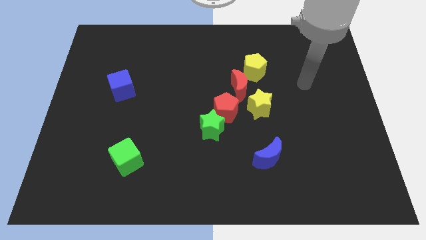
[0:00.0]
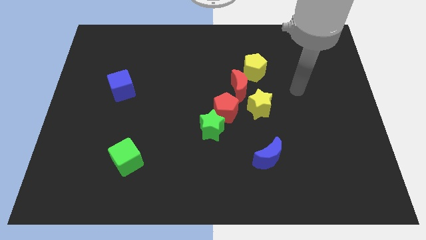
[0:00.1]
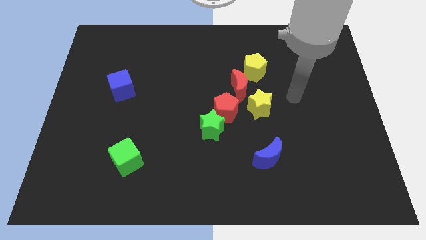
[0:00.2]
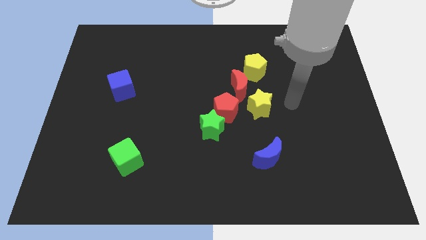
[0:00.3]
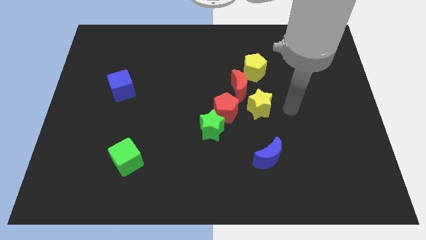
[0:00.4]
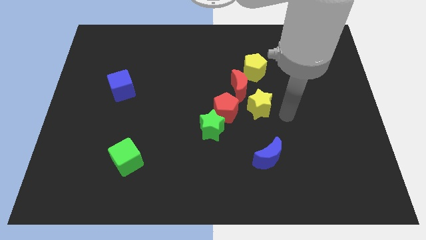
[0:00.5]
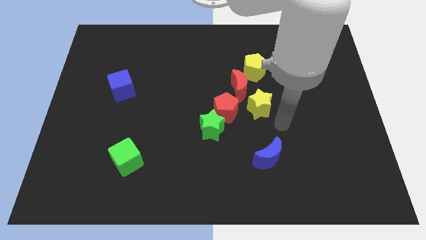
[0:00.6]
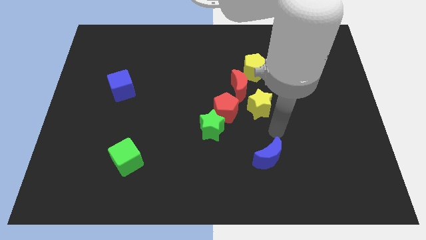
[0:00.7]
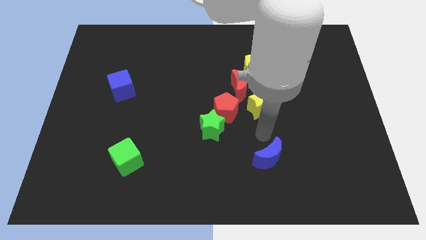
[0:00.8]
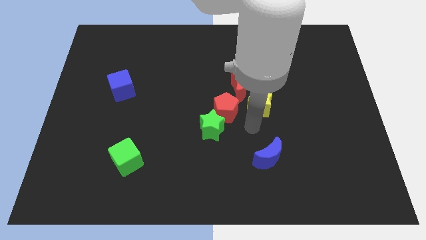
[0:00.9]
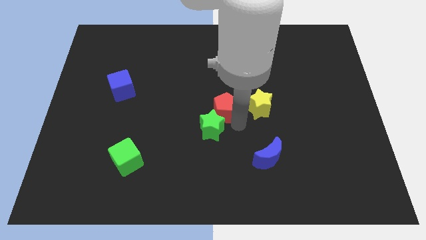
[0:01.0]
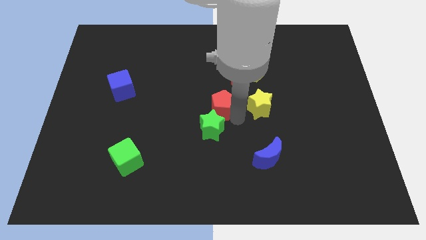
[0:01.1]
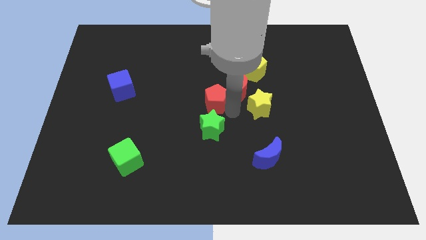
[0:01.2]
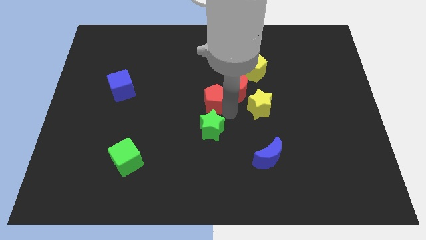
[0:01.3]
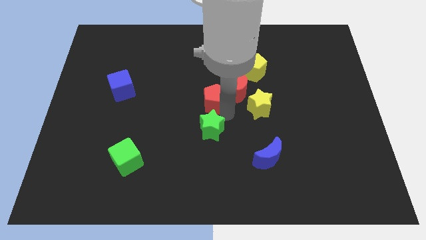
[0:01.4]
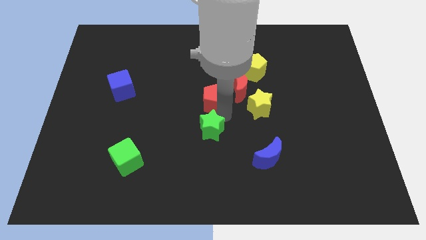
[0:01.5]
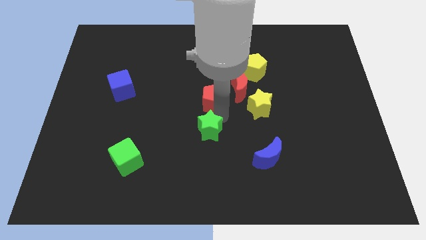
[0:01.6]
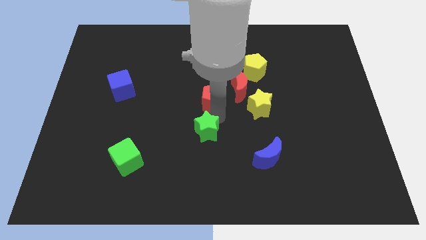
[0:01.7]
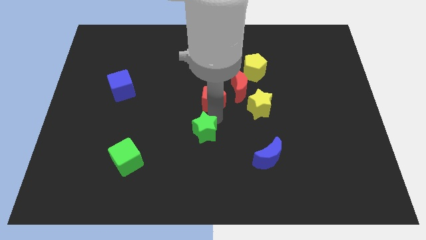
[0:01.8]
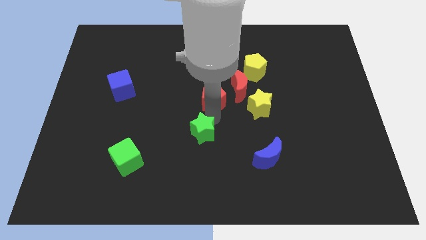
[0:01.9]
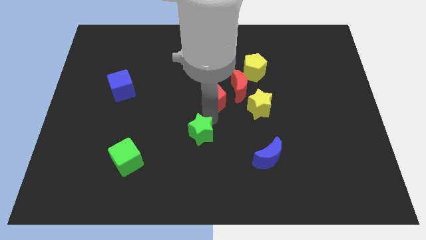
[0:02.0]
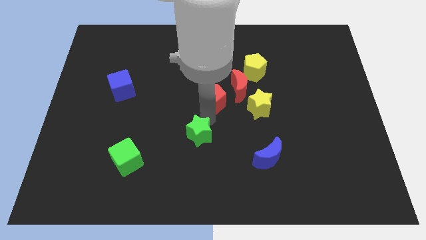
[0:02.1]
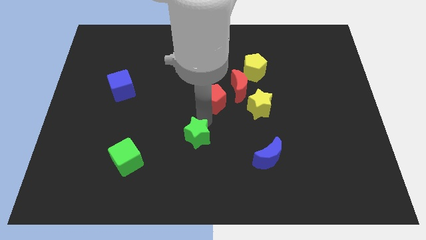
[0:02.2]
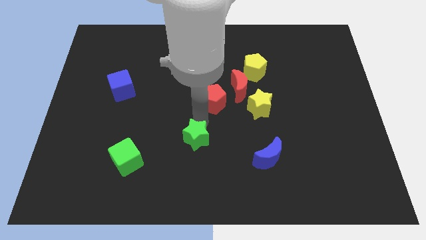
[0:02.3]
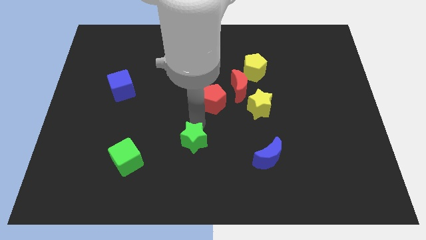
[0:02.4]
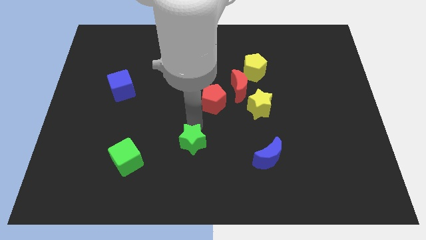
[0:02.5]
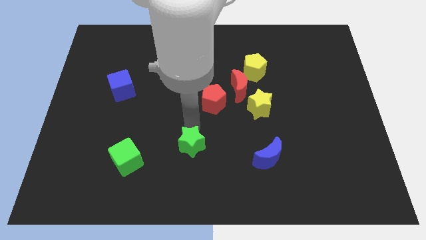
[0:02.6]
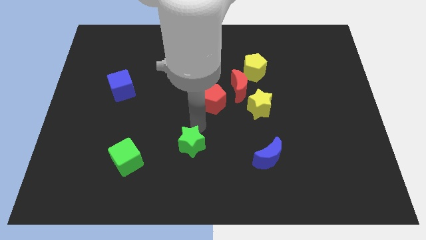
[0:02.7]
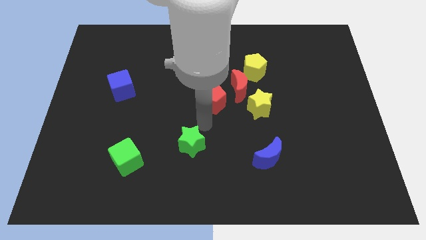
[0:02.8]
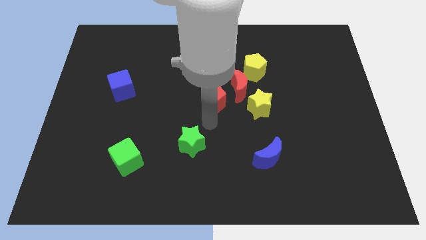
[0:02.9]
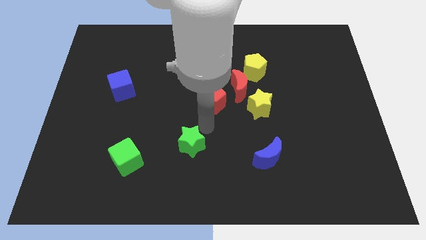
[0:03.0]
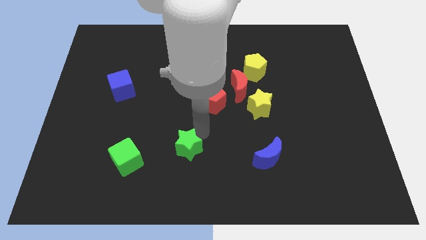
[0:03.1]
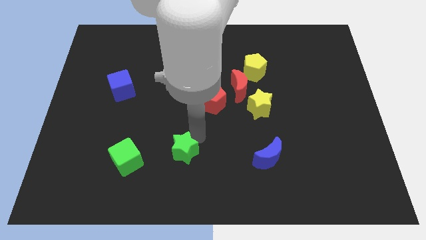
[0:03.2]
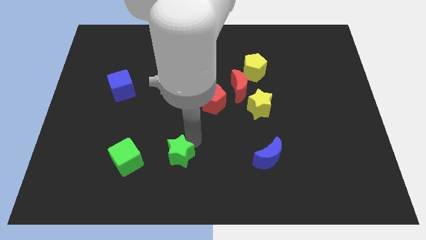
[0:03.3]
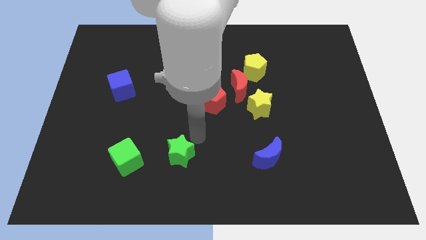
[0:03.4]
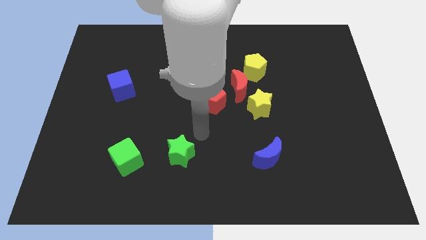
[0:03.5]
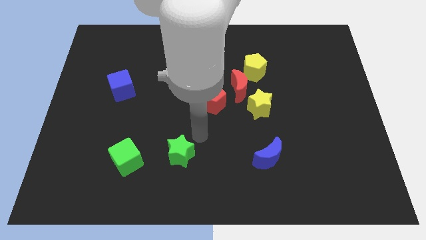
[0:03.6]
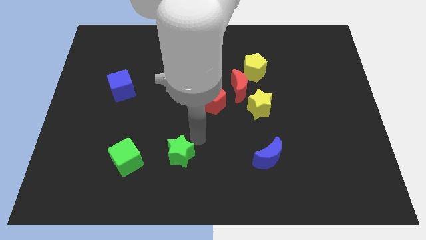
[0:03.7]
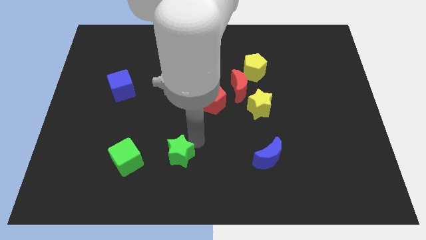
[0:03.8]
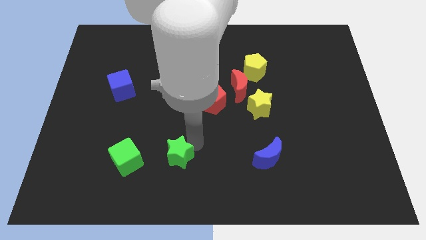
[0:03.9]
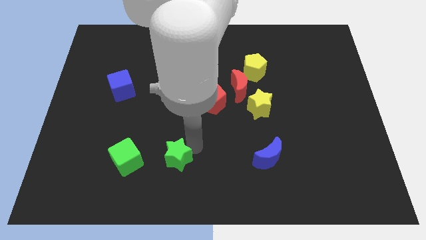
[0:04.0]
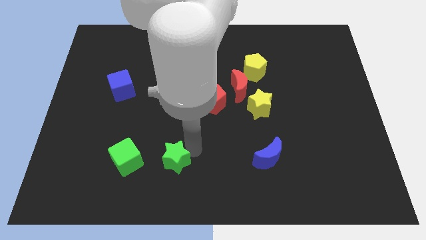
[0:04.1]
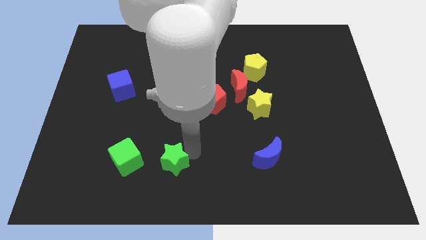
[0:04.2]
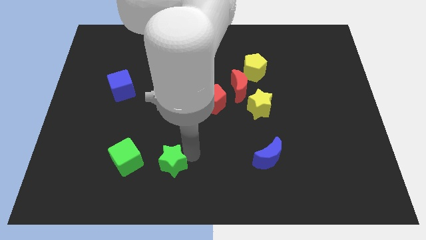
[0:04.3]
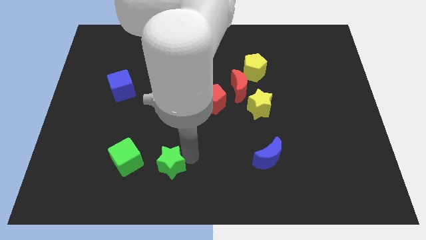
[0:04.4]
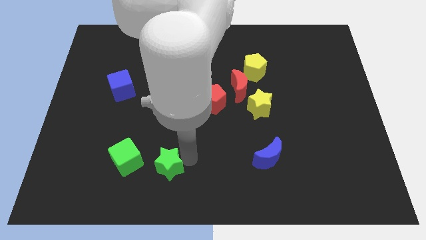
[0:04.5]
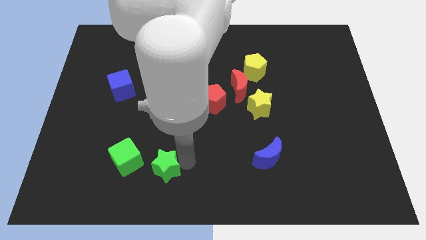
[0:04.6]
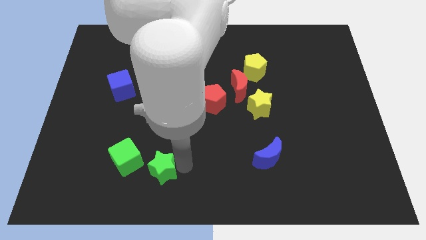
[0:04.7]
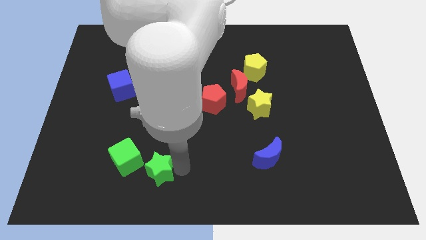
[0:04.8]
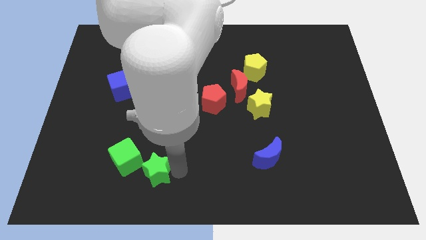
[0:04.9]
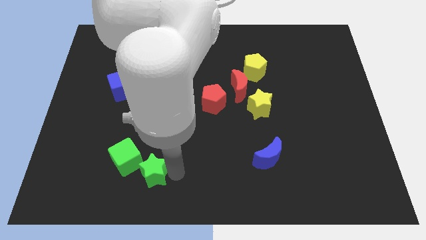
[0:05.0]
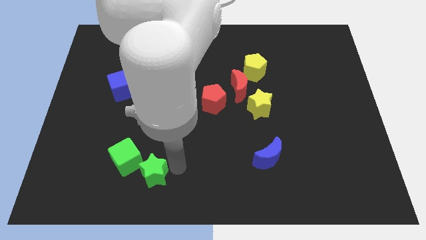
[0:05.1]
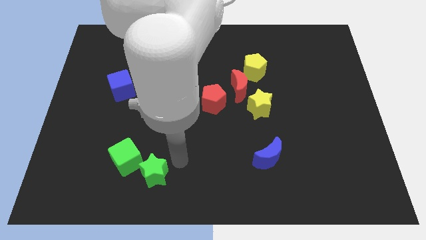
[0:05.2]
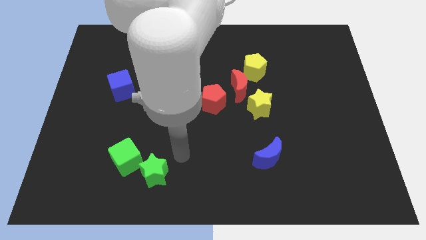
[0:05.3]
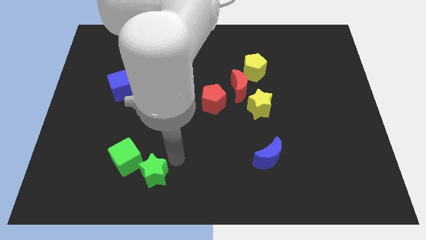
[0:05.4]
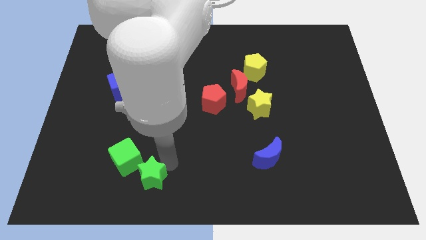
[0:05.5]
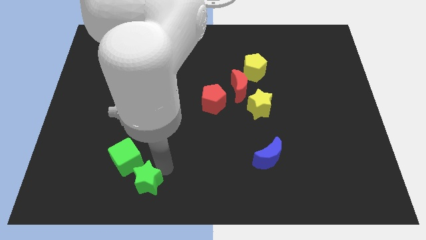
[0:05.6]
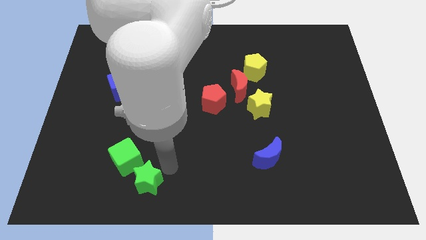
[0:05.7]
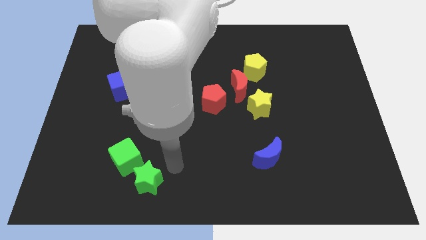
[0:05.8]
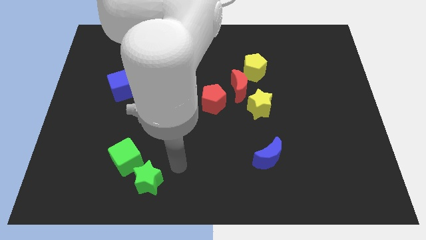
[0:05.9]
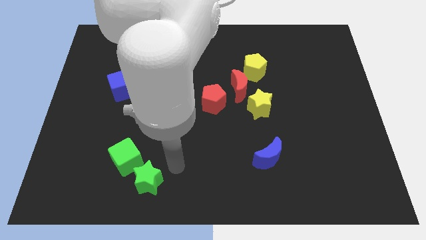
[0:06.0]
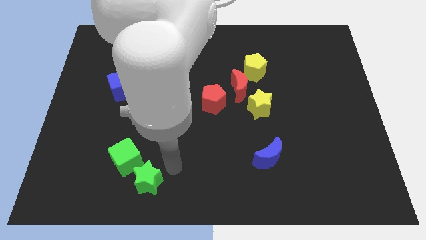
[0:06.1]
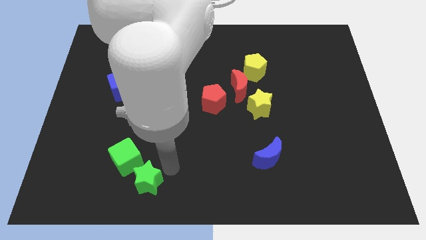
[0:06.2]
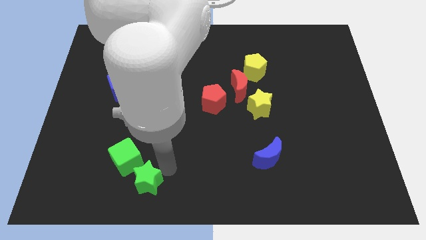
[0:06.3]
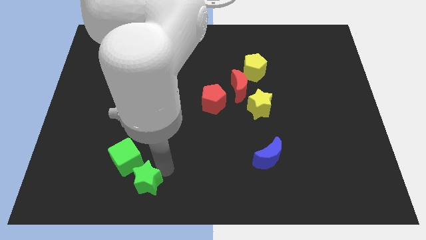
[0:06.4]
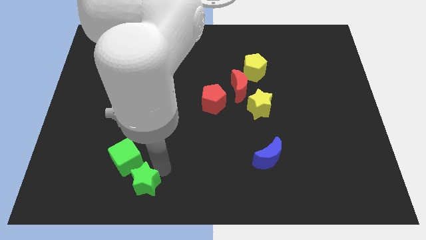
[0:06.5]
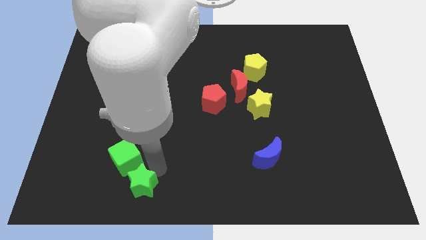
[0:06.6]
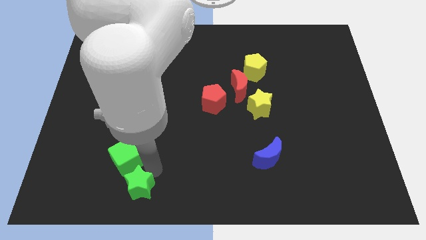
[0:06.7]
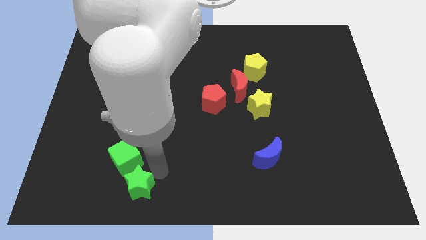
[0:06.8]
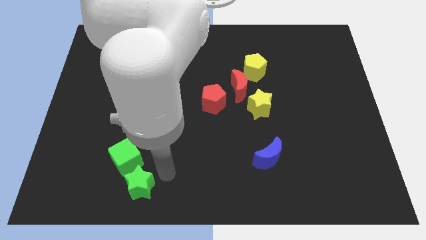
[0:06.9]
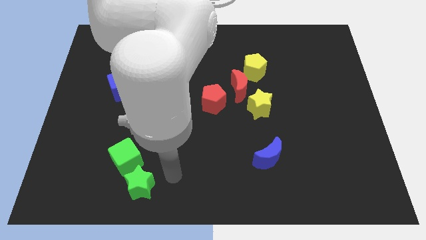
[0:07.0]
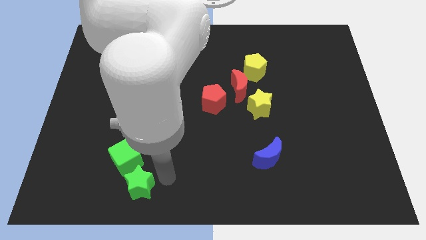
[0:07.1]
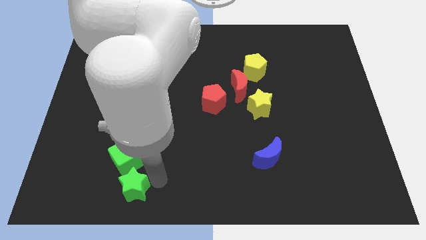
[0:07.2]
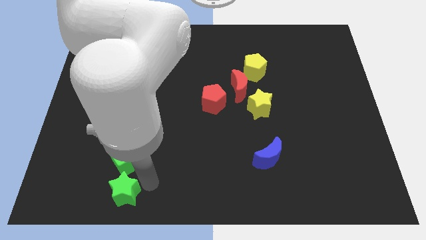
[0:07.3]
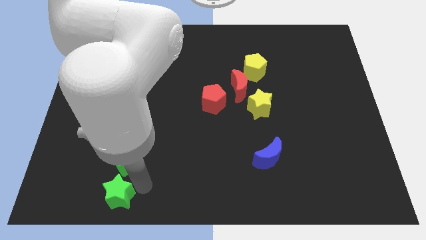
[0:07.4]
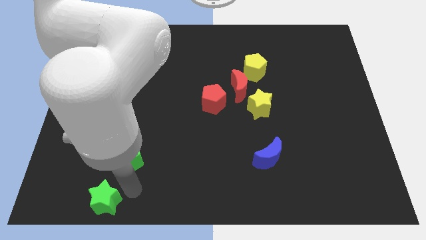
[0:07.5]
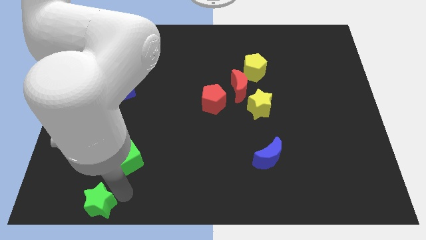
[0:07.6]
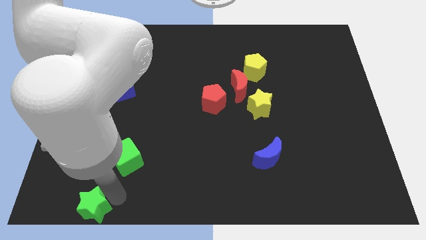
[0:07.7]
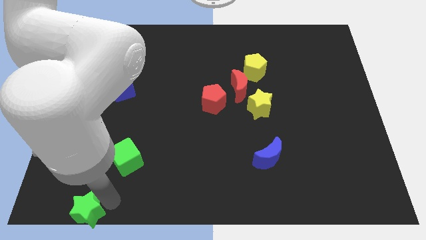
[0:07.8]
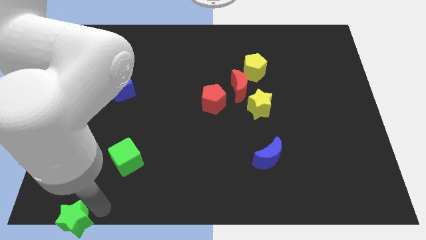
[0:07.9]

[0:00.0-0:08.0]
slide the green star to the bottom left corner
